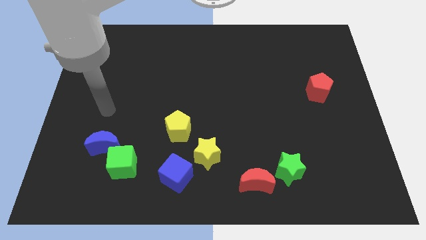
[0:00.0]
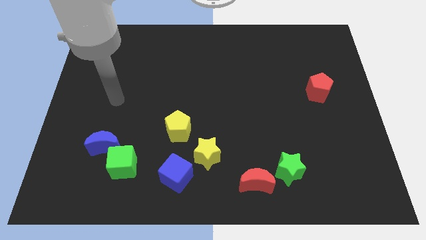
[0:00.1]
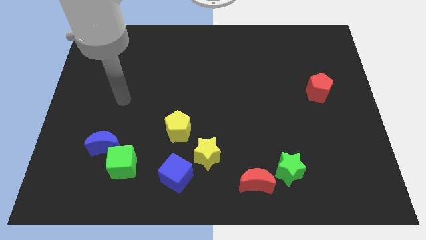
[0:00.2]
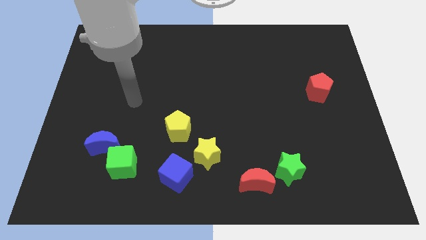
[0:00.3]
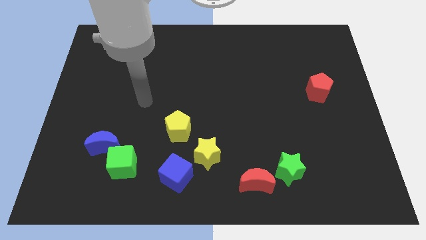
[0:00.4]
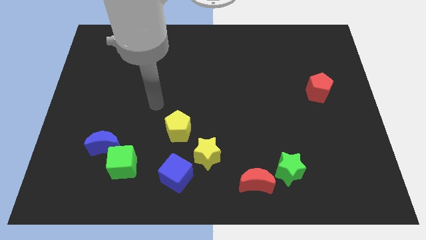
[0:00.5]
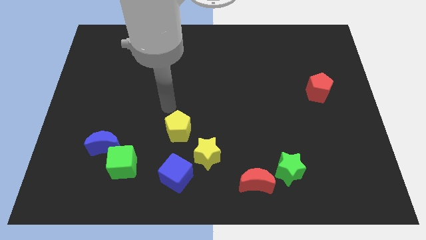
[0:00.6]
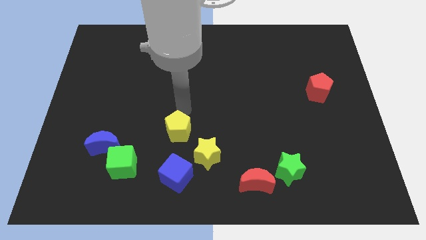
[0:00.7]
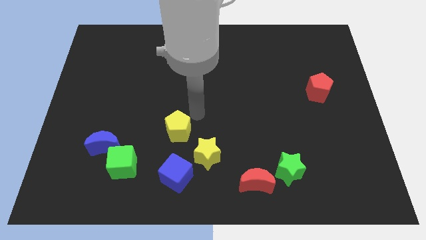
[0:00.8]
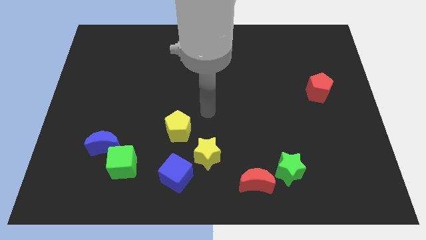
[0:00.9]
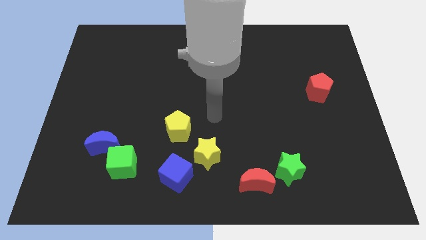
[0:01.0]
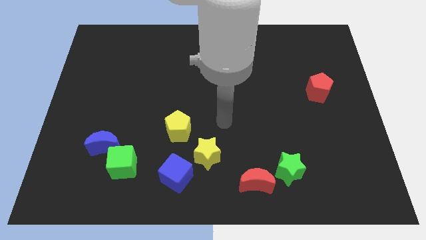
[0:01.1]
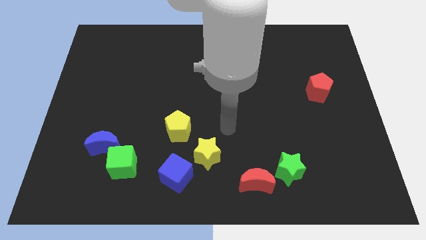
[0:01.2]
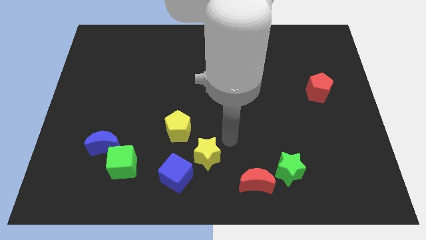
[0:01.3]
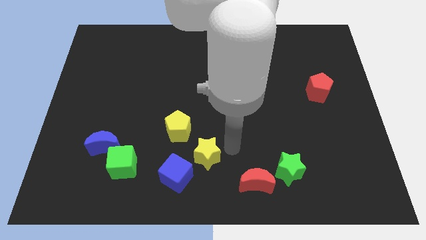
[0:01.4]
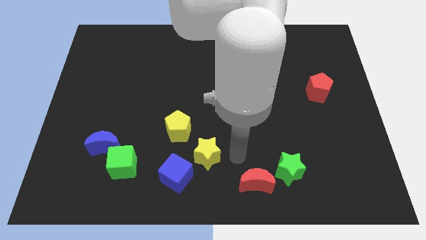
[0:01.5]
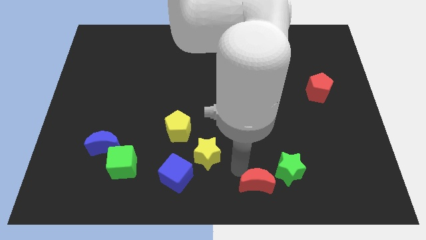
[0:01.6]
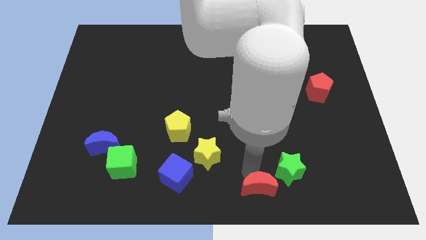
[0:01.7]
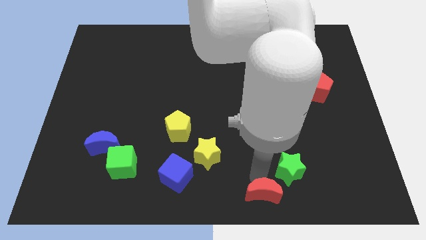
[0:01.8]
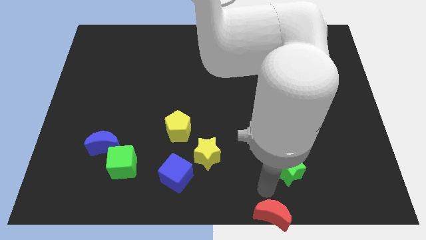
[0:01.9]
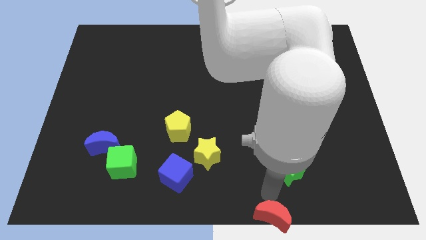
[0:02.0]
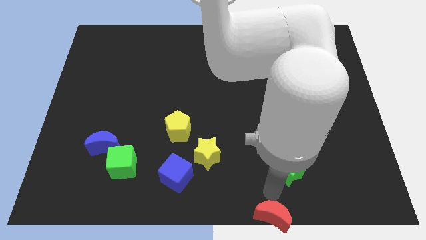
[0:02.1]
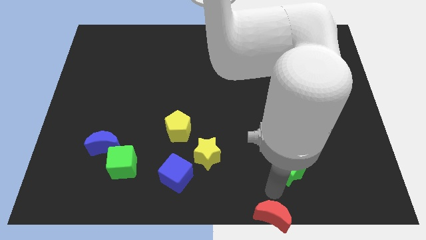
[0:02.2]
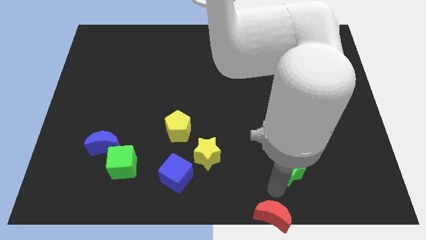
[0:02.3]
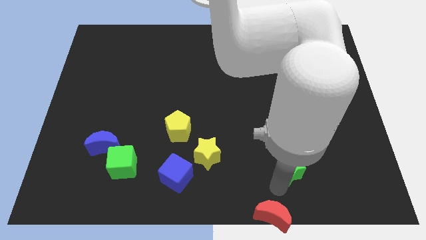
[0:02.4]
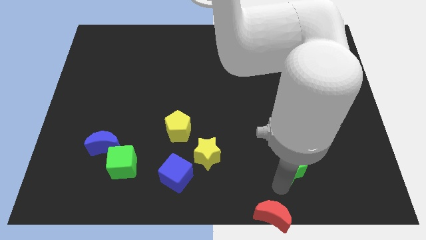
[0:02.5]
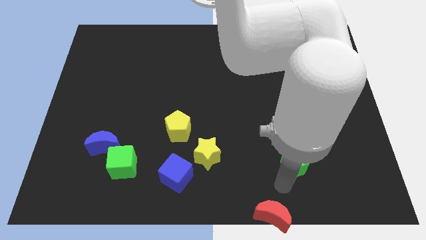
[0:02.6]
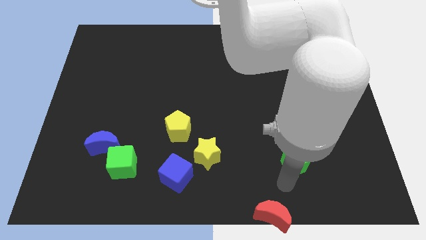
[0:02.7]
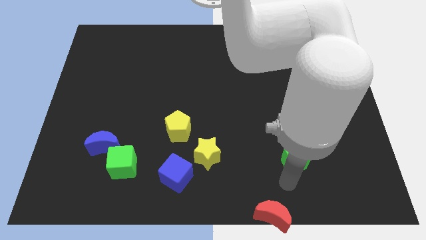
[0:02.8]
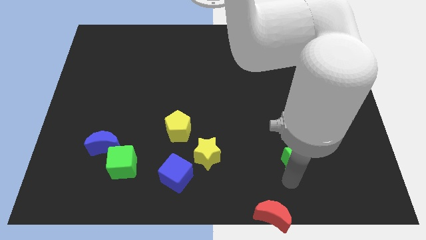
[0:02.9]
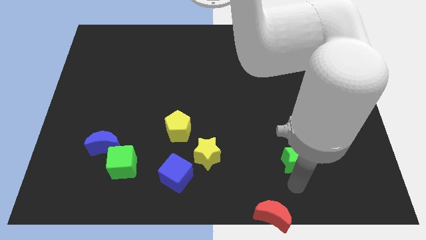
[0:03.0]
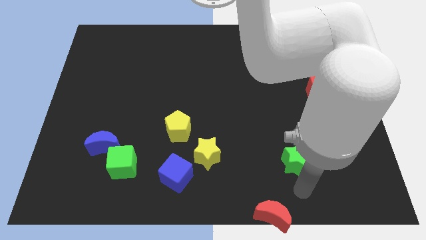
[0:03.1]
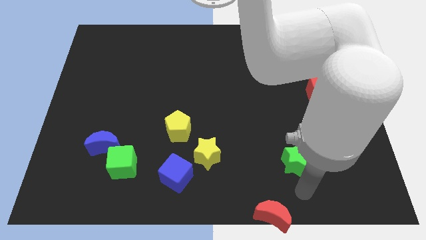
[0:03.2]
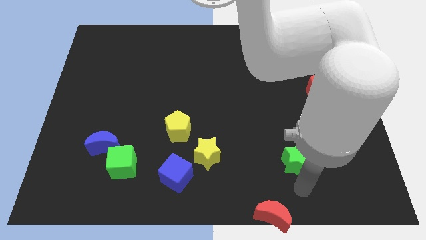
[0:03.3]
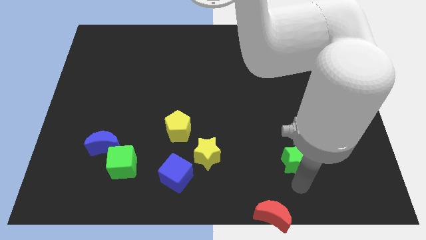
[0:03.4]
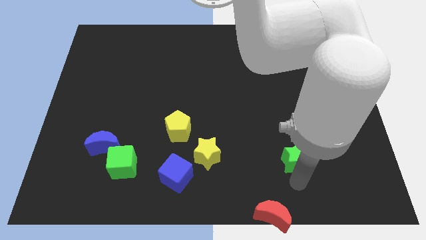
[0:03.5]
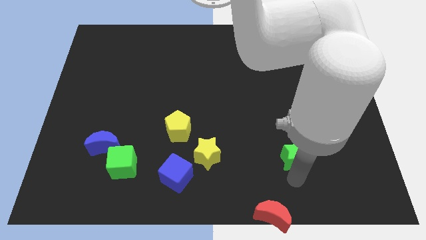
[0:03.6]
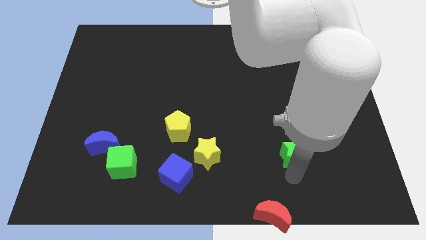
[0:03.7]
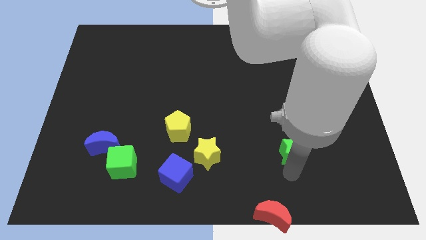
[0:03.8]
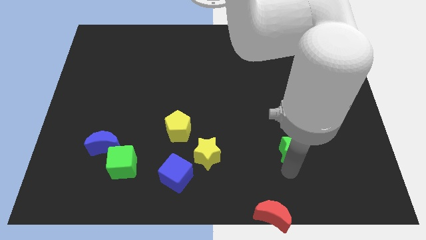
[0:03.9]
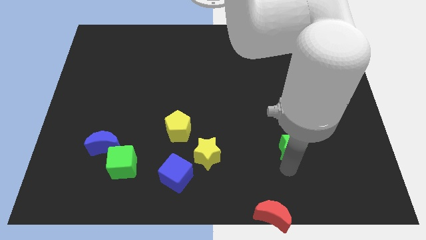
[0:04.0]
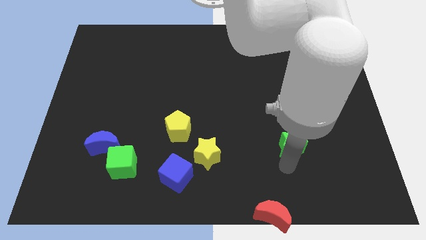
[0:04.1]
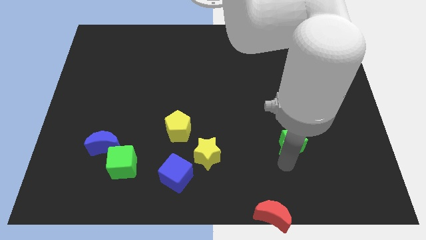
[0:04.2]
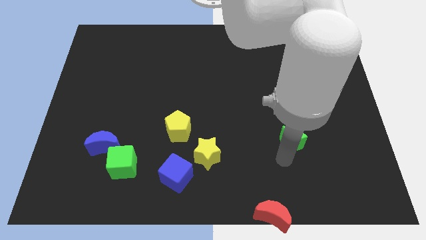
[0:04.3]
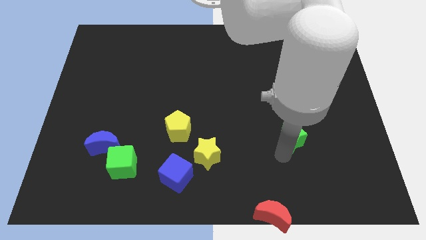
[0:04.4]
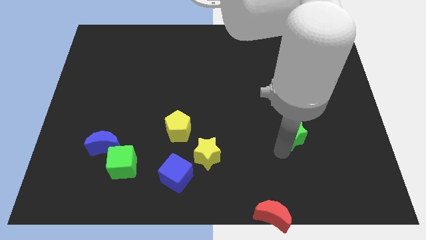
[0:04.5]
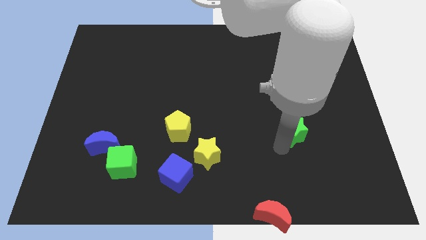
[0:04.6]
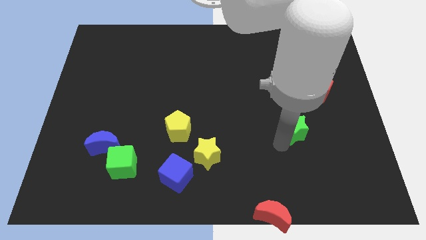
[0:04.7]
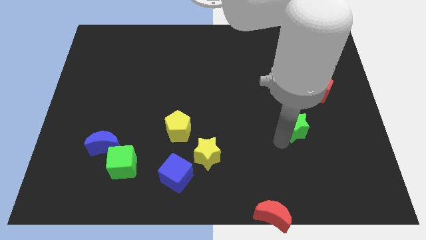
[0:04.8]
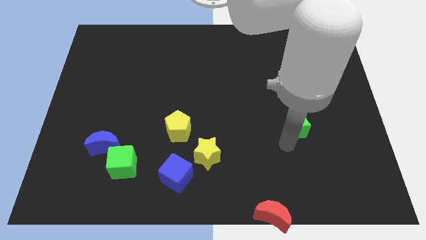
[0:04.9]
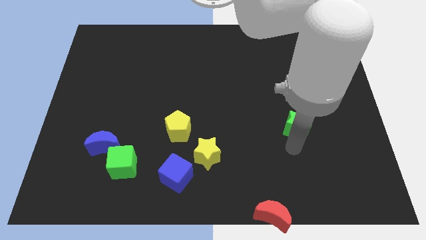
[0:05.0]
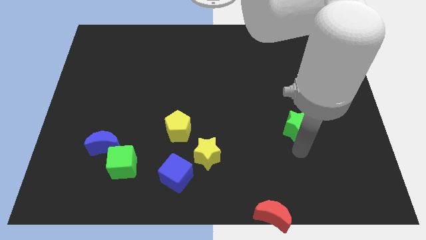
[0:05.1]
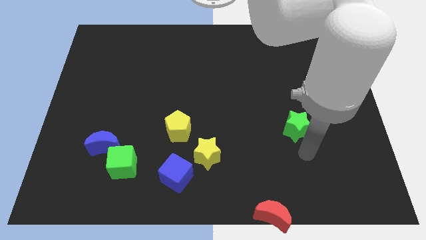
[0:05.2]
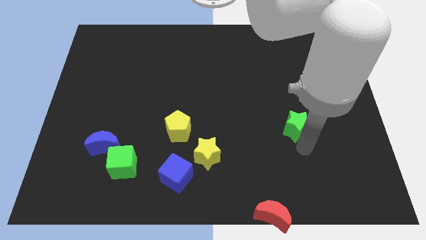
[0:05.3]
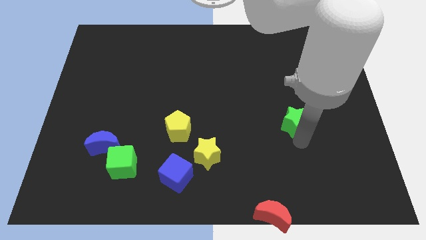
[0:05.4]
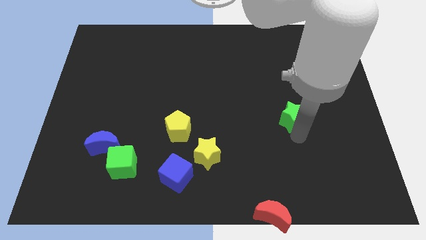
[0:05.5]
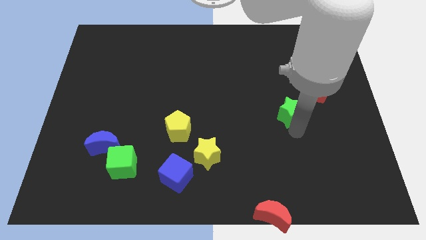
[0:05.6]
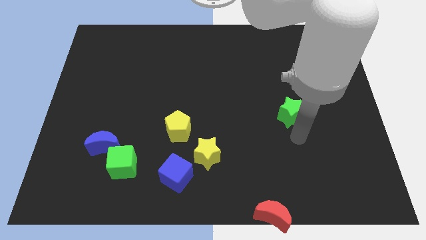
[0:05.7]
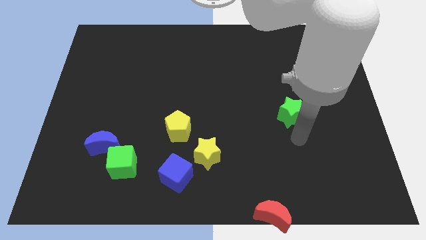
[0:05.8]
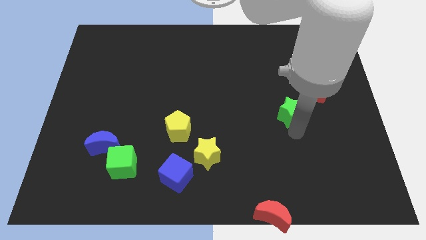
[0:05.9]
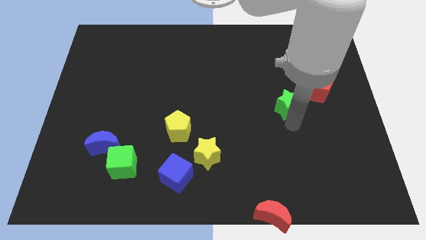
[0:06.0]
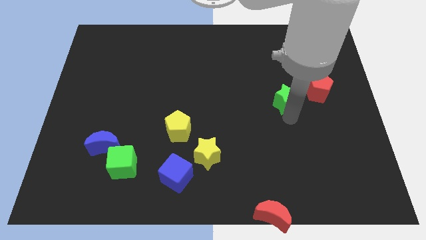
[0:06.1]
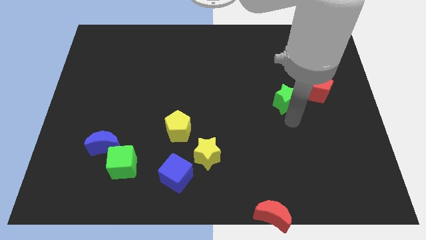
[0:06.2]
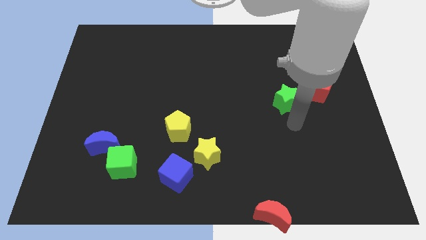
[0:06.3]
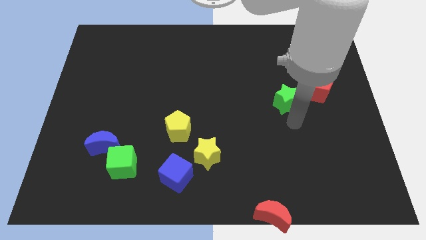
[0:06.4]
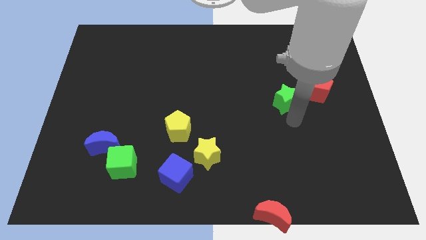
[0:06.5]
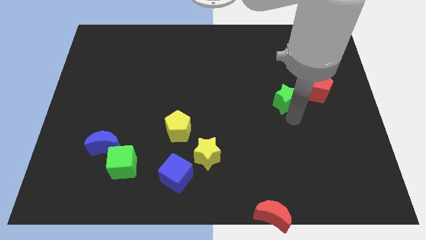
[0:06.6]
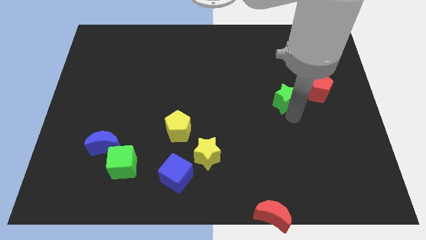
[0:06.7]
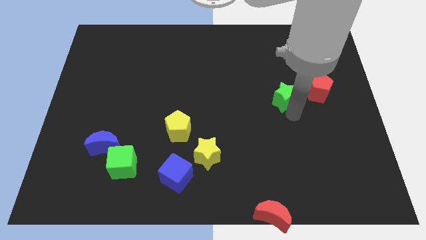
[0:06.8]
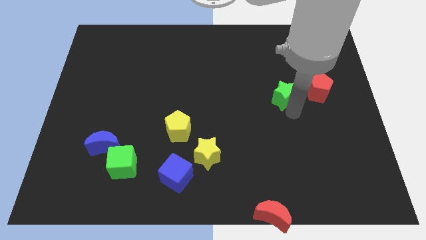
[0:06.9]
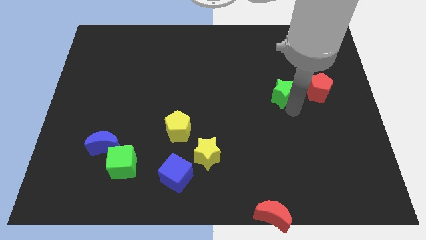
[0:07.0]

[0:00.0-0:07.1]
move the green star up

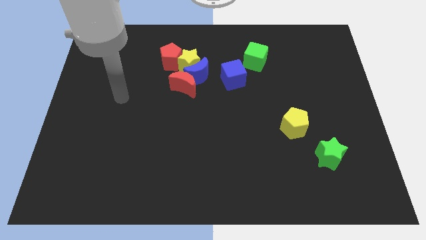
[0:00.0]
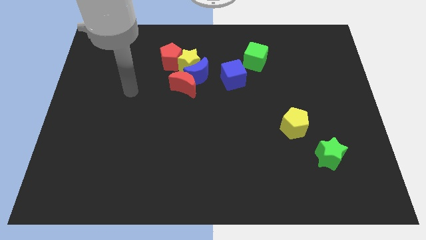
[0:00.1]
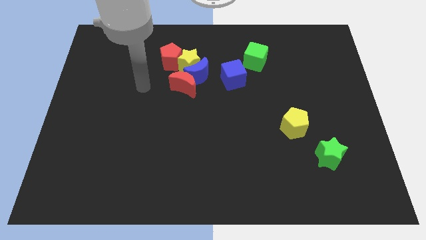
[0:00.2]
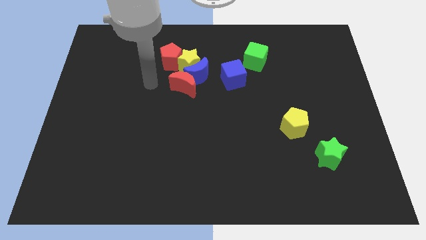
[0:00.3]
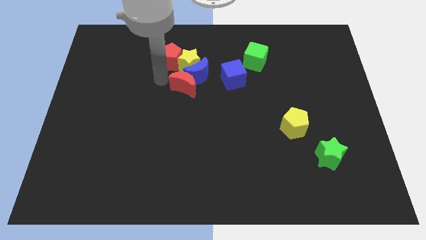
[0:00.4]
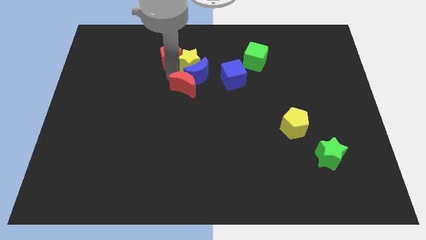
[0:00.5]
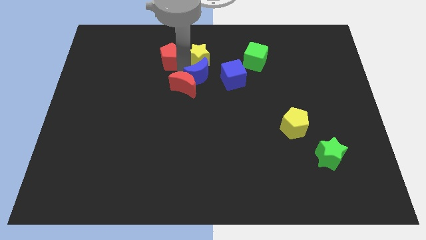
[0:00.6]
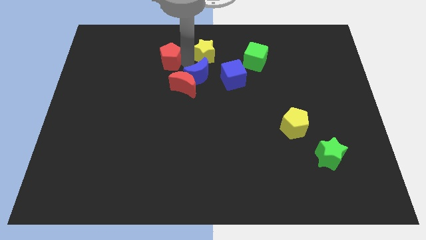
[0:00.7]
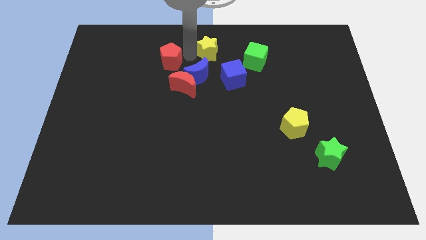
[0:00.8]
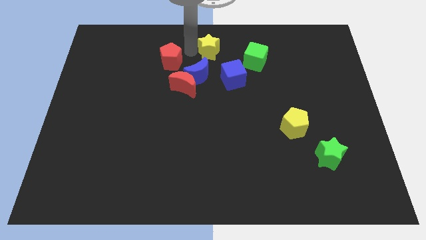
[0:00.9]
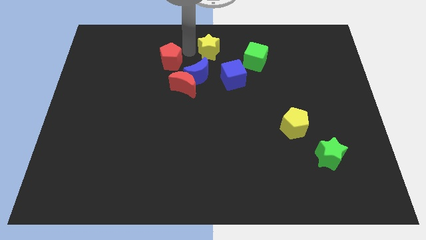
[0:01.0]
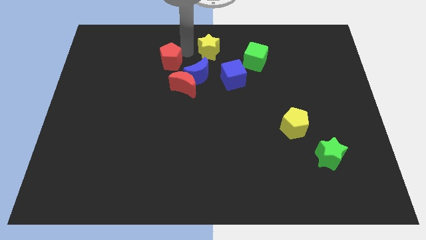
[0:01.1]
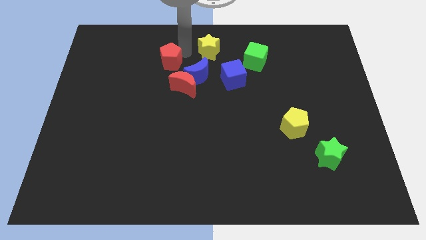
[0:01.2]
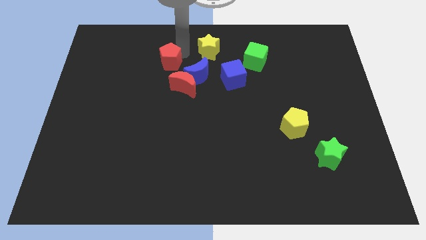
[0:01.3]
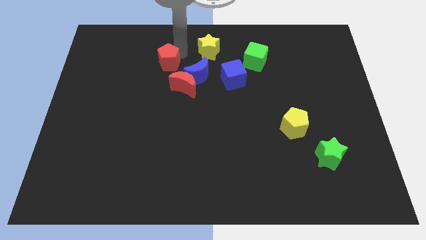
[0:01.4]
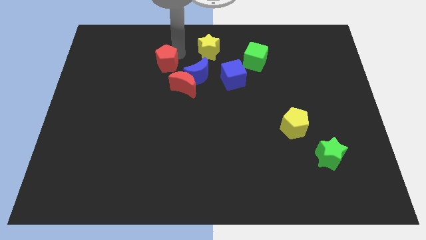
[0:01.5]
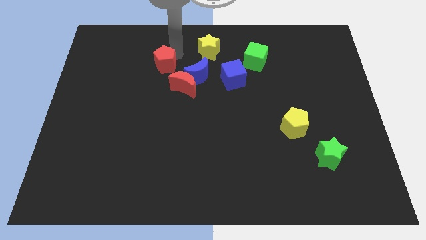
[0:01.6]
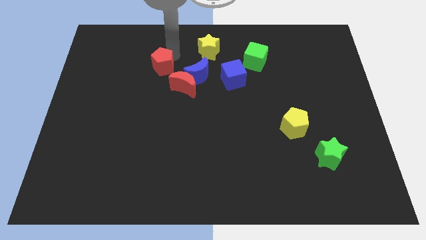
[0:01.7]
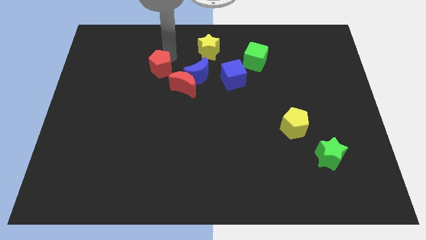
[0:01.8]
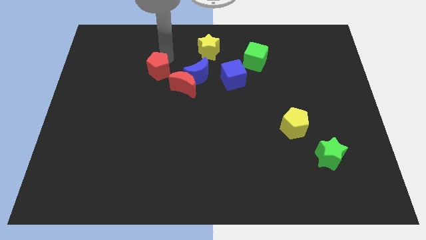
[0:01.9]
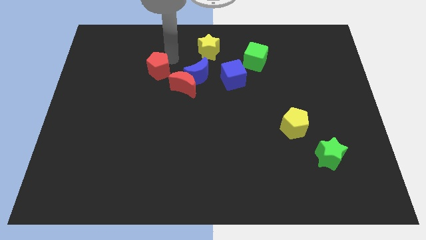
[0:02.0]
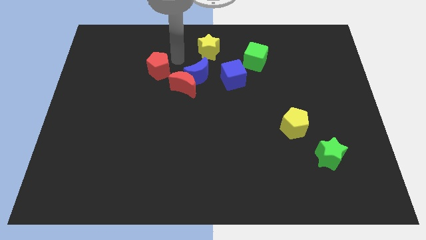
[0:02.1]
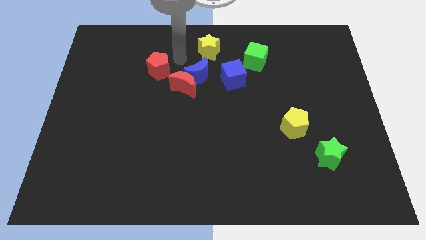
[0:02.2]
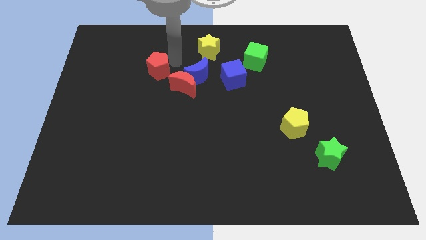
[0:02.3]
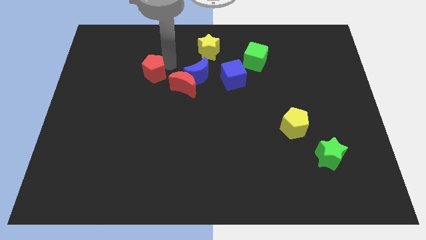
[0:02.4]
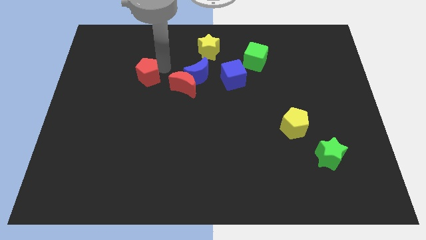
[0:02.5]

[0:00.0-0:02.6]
move the red pentagon a little down and then left
